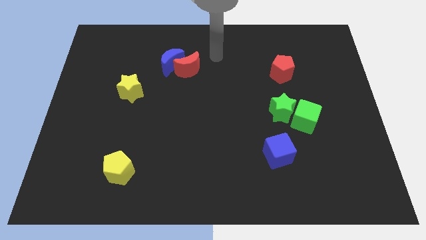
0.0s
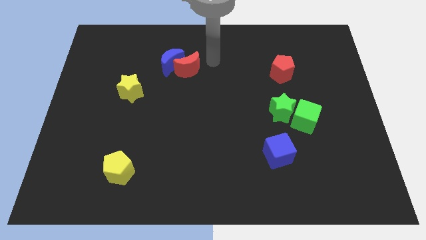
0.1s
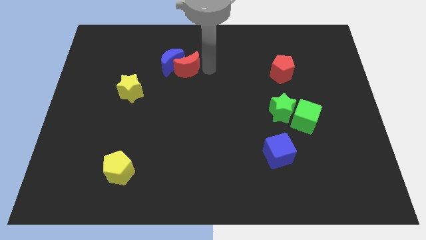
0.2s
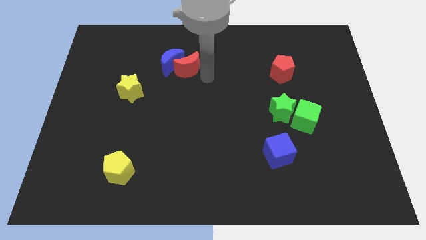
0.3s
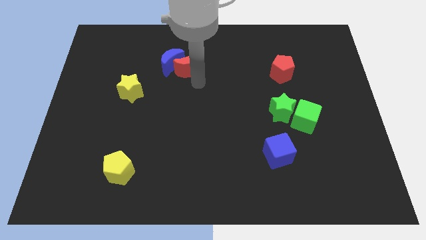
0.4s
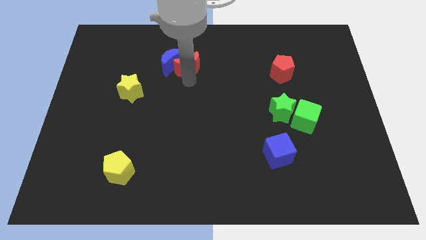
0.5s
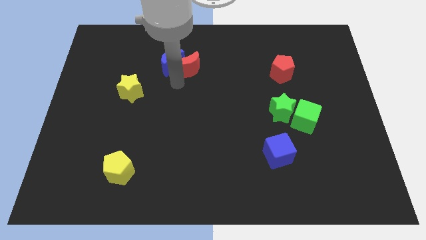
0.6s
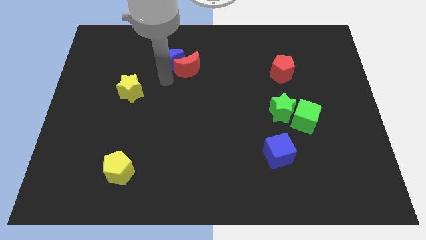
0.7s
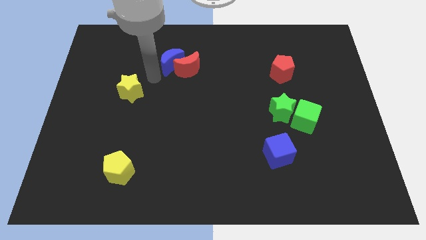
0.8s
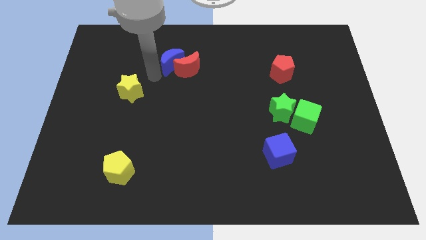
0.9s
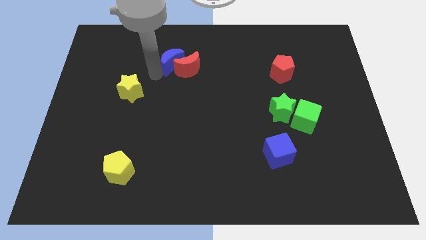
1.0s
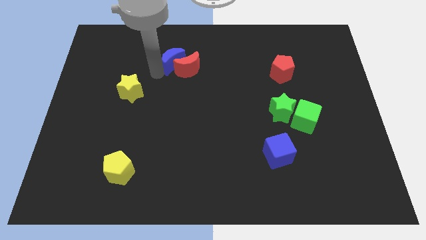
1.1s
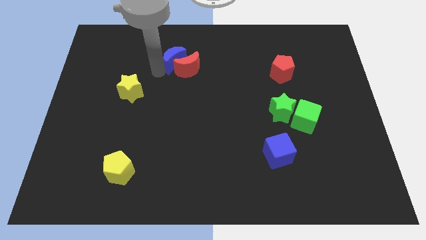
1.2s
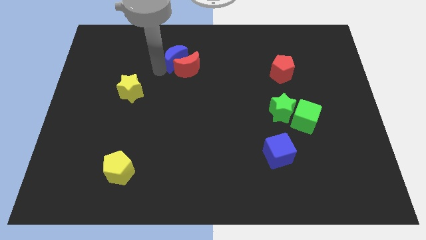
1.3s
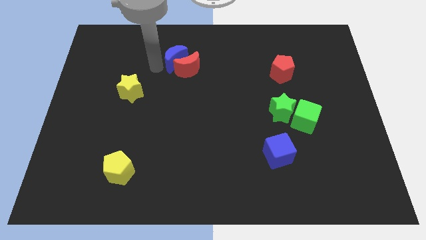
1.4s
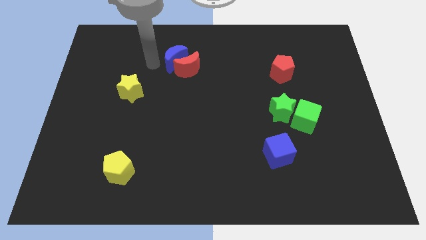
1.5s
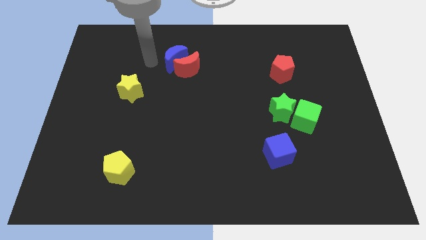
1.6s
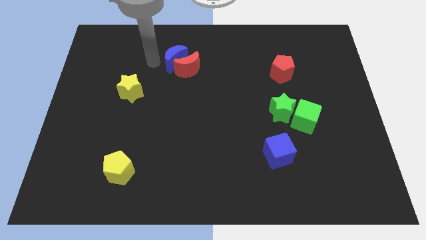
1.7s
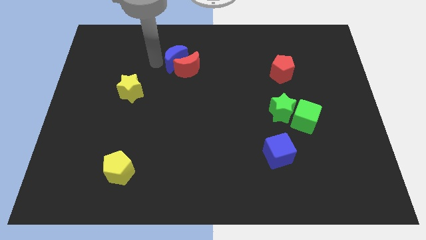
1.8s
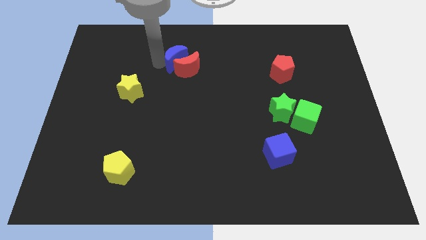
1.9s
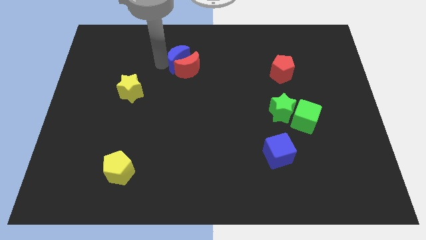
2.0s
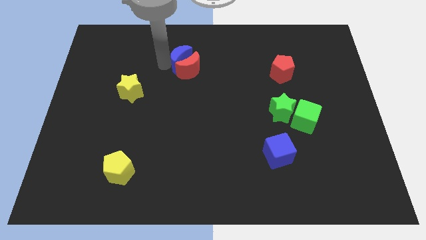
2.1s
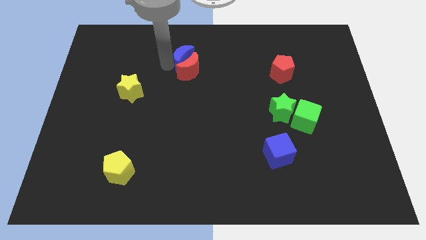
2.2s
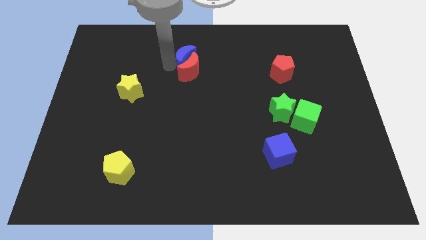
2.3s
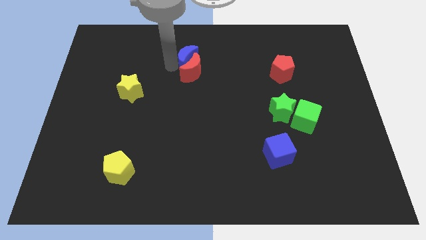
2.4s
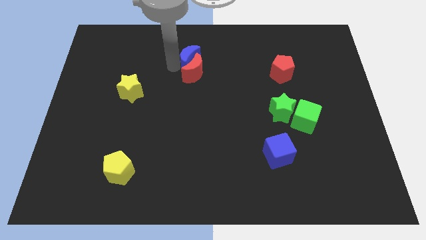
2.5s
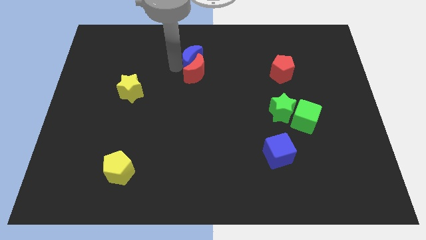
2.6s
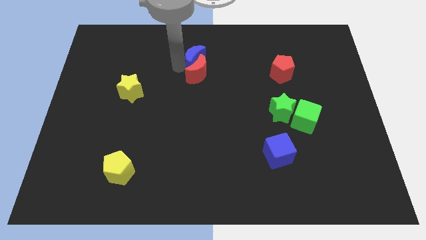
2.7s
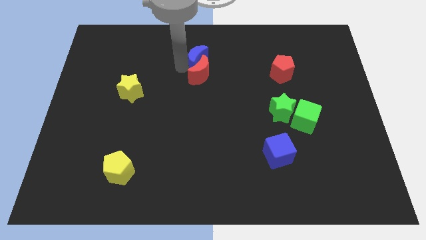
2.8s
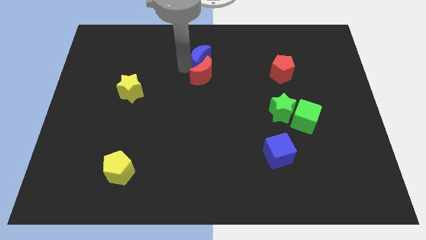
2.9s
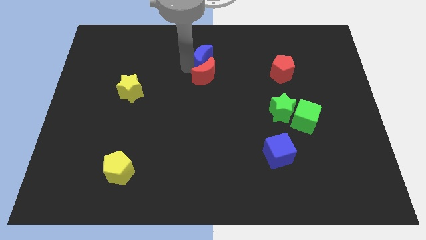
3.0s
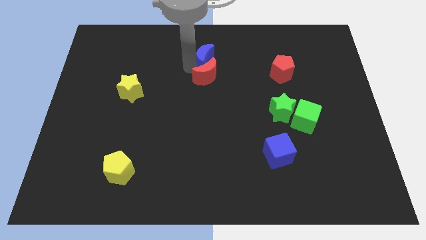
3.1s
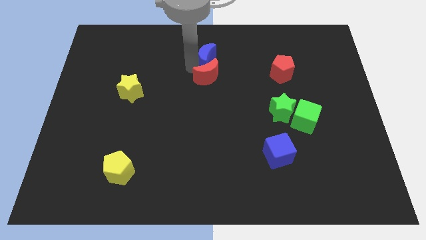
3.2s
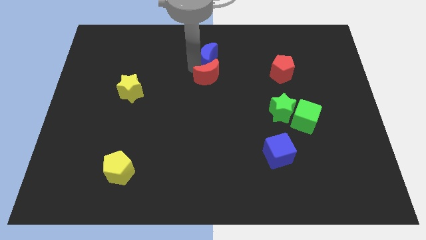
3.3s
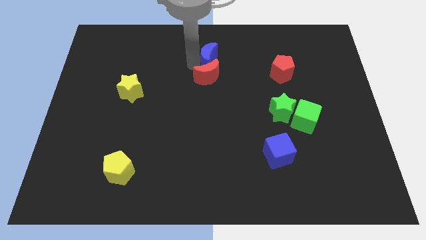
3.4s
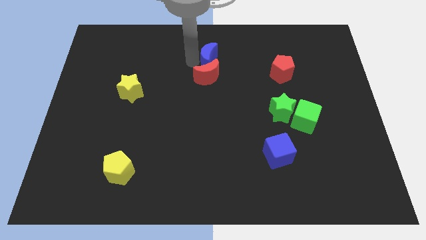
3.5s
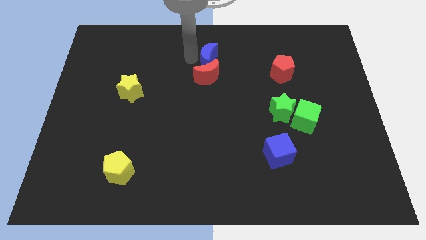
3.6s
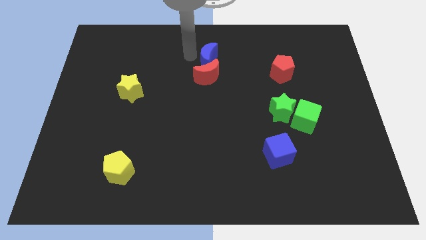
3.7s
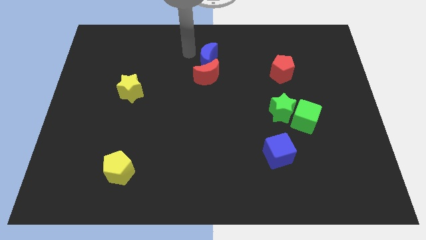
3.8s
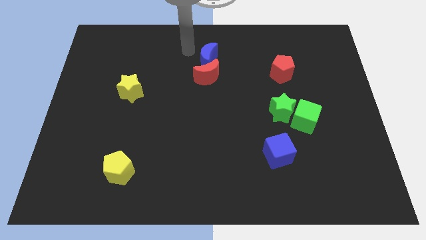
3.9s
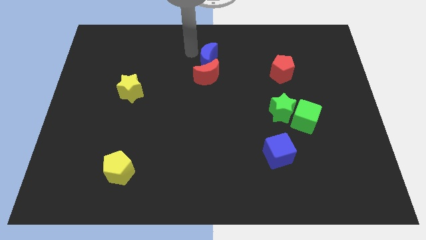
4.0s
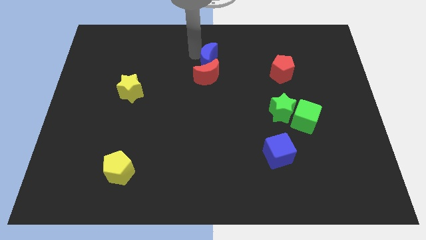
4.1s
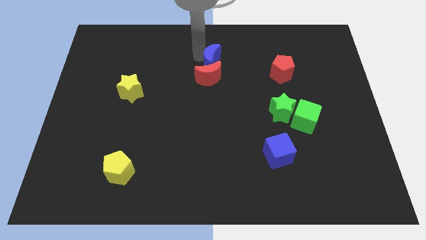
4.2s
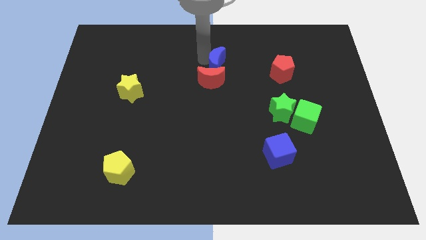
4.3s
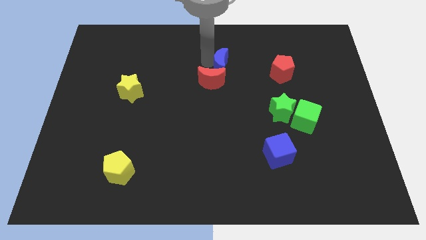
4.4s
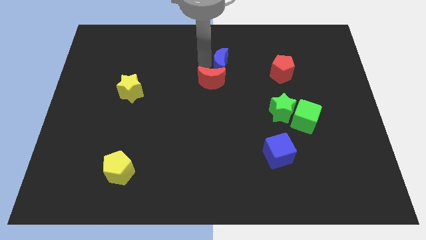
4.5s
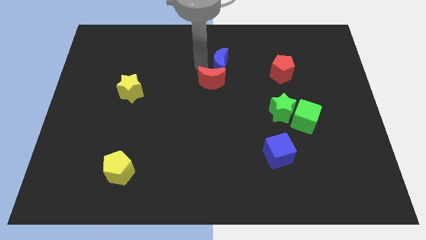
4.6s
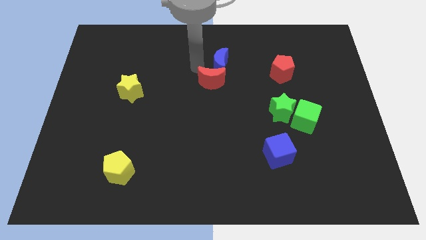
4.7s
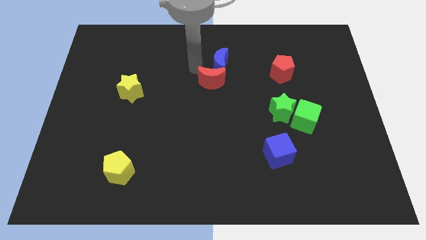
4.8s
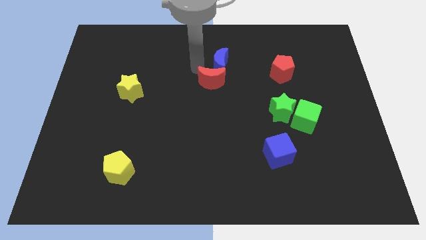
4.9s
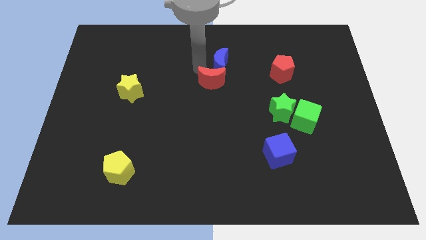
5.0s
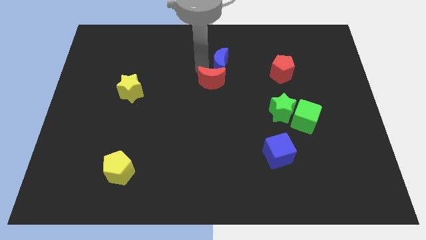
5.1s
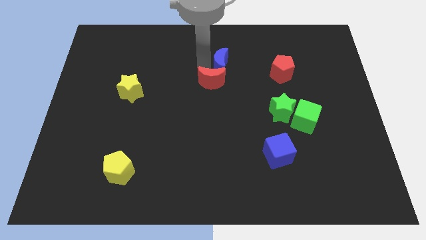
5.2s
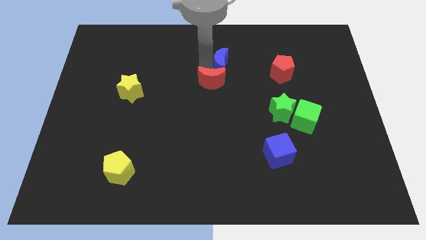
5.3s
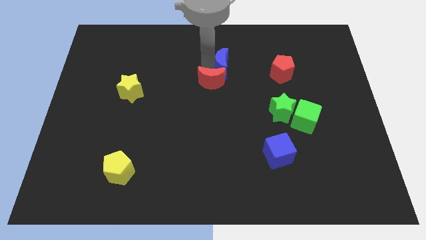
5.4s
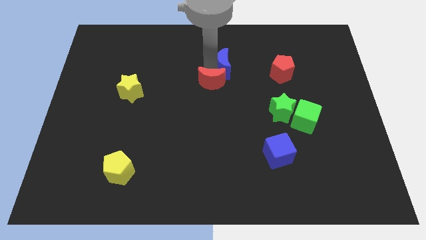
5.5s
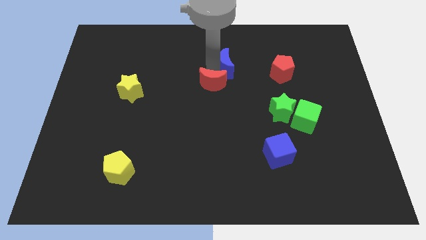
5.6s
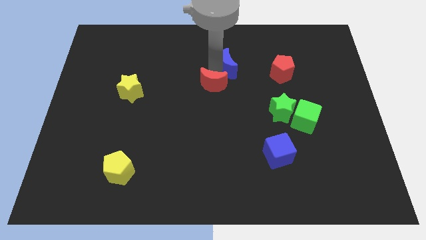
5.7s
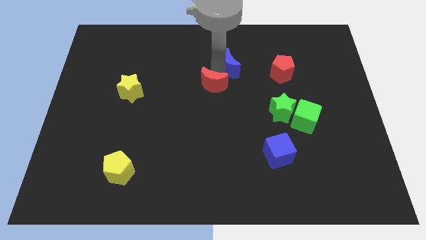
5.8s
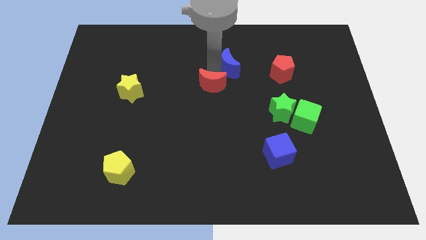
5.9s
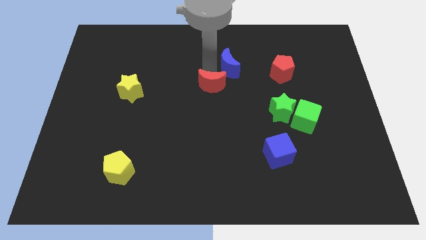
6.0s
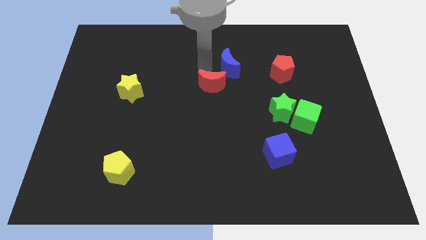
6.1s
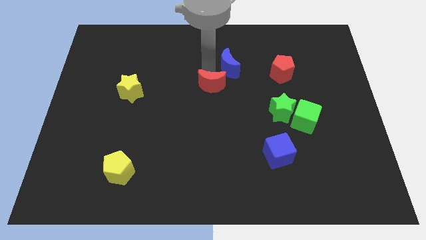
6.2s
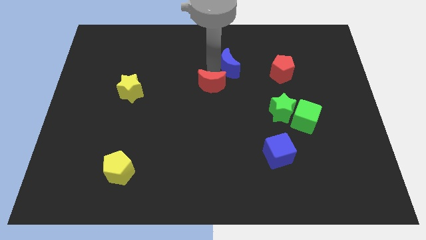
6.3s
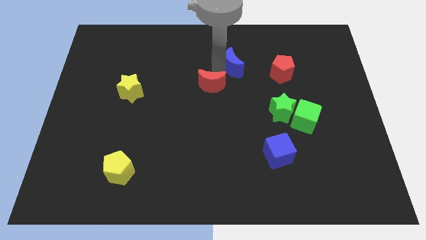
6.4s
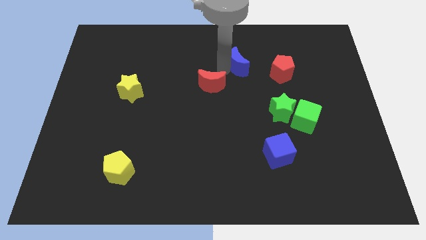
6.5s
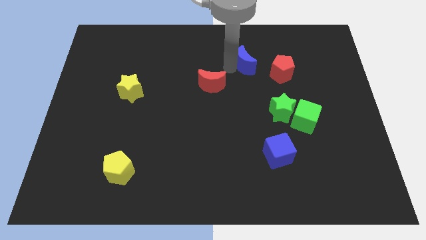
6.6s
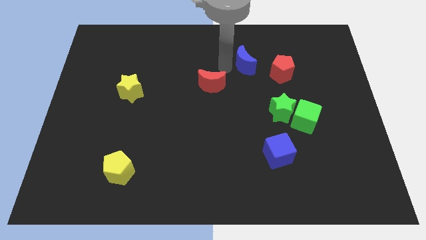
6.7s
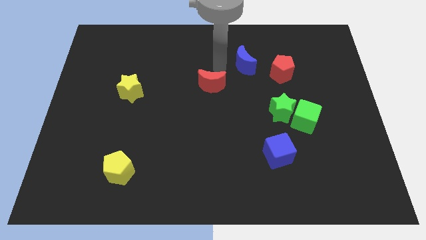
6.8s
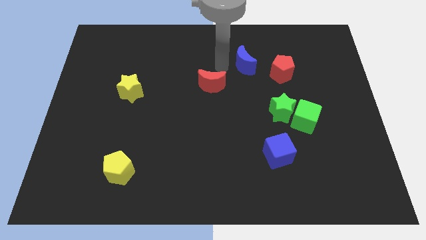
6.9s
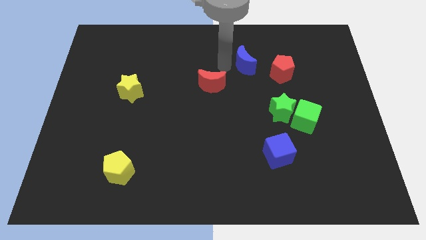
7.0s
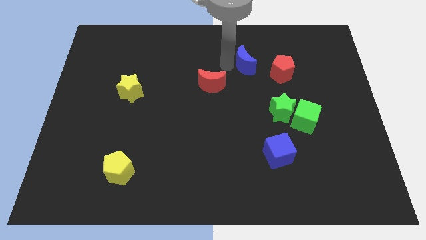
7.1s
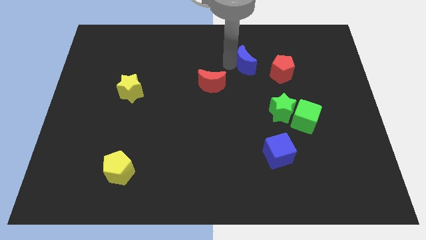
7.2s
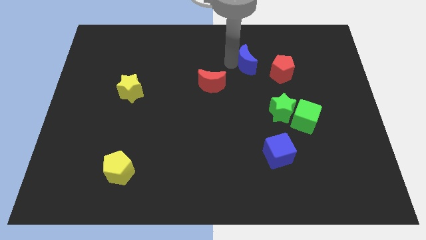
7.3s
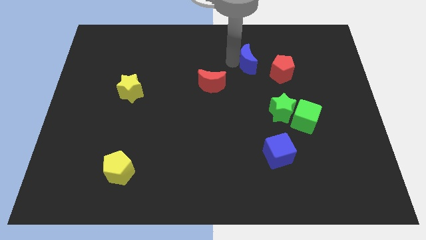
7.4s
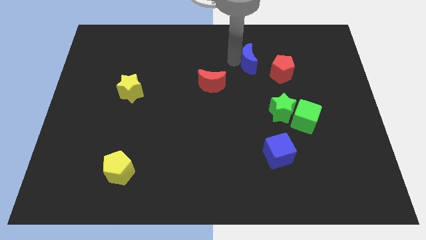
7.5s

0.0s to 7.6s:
push the blue moon to the right

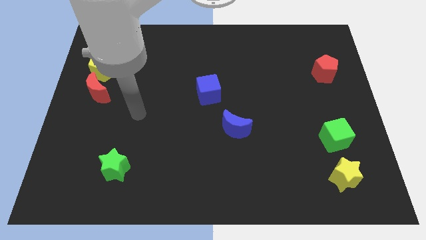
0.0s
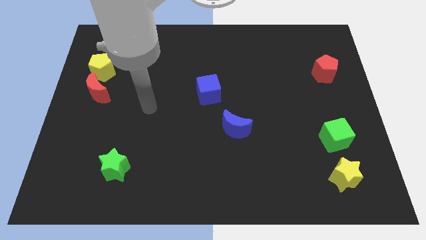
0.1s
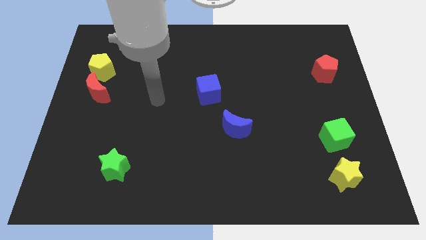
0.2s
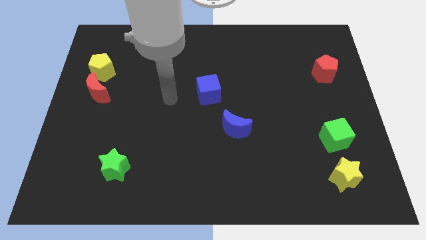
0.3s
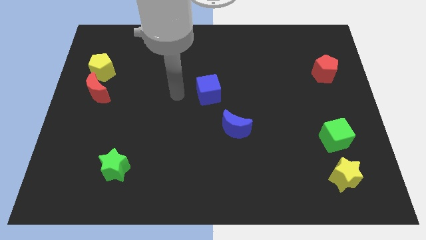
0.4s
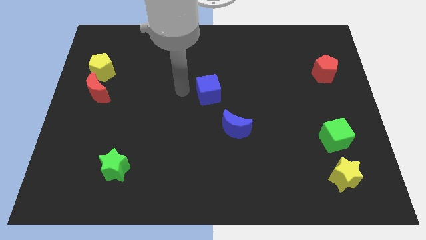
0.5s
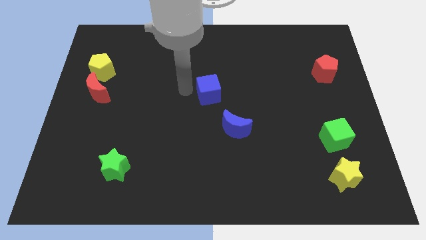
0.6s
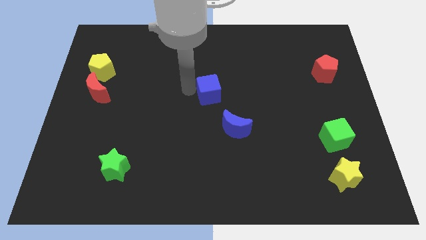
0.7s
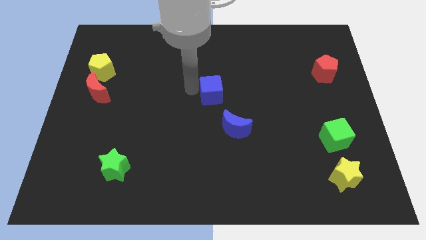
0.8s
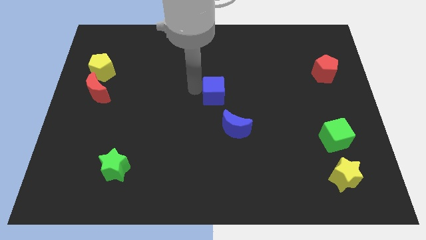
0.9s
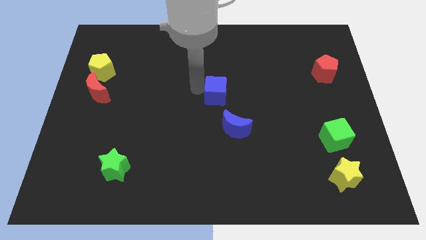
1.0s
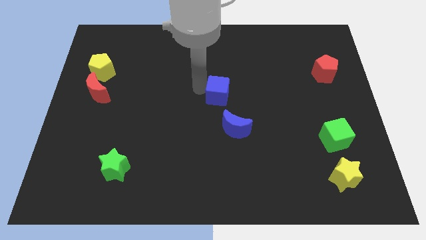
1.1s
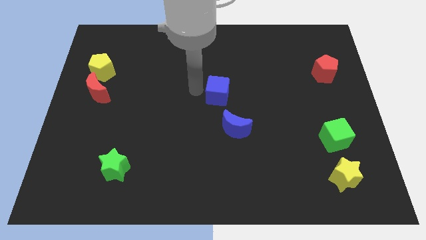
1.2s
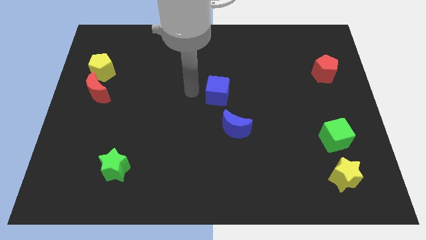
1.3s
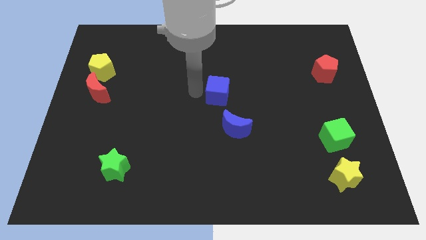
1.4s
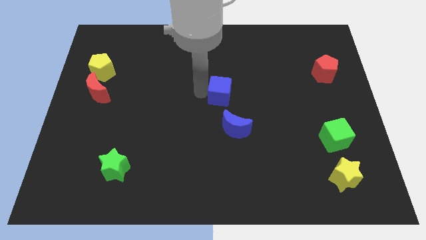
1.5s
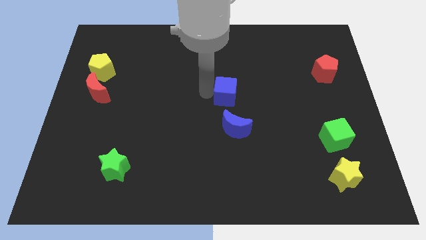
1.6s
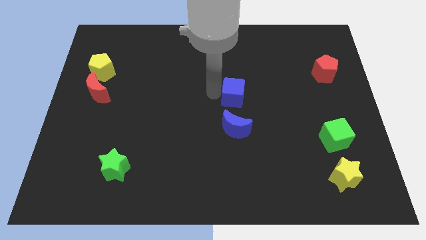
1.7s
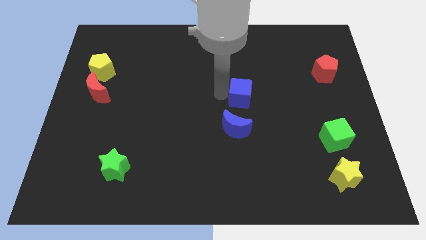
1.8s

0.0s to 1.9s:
slide the blue cube to the right a bit
